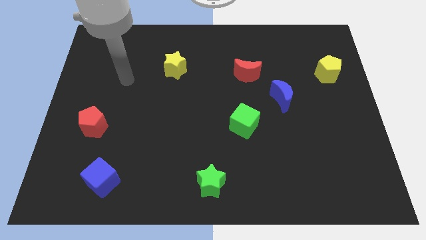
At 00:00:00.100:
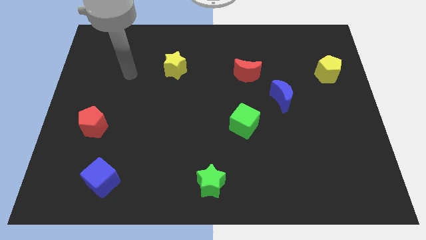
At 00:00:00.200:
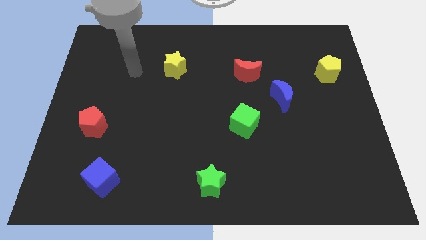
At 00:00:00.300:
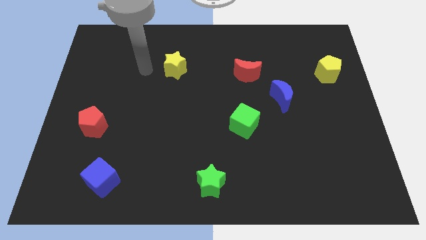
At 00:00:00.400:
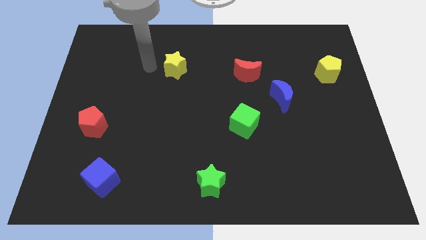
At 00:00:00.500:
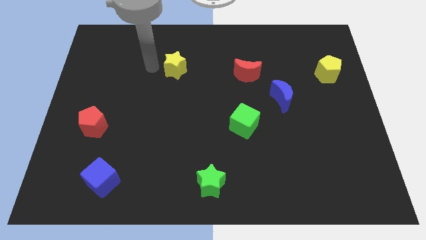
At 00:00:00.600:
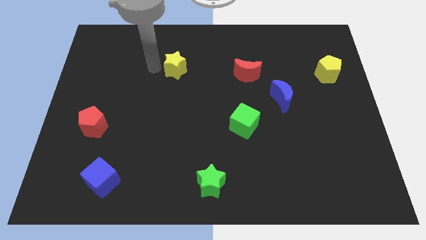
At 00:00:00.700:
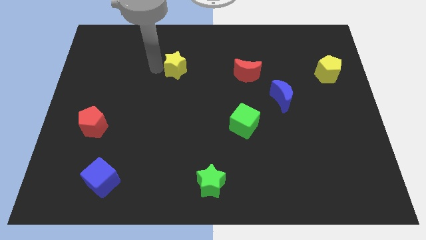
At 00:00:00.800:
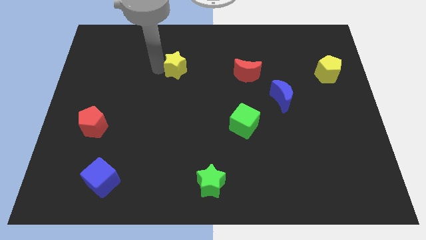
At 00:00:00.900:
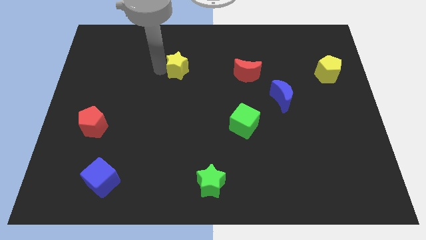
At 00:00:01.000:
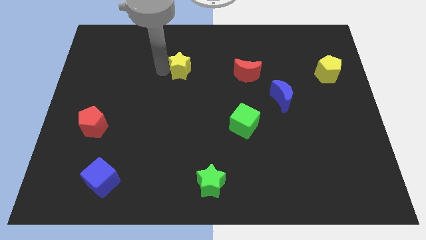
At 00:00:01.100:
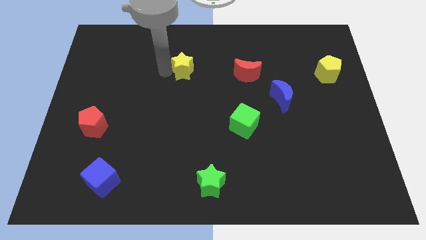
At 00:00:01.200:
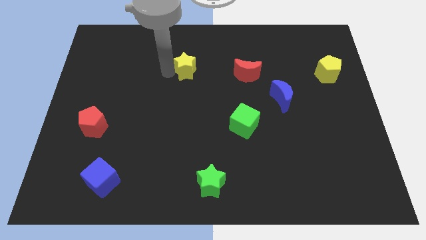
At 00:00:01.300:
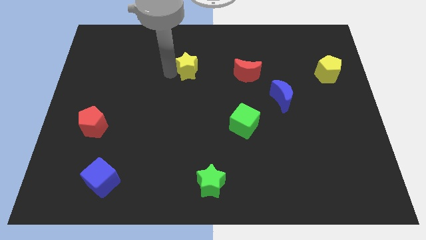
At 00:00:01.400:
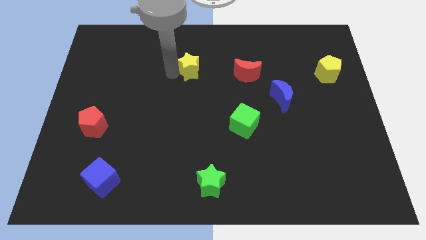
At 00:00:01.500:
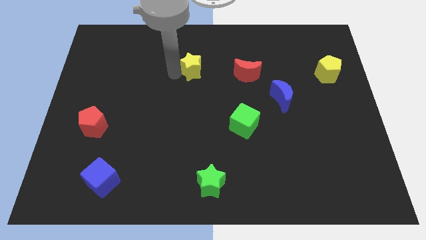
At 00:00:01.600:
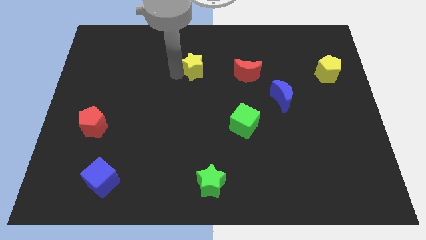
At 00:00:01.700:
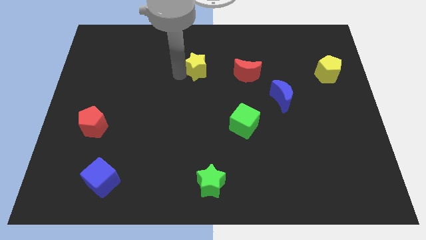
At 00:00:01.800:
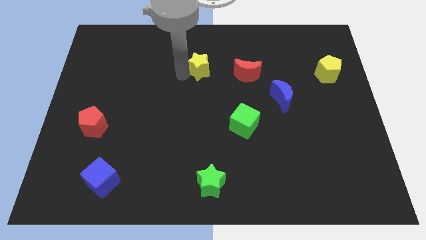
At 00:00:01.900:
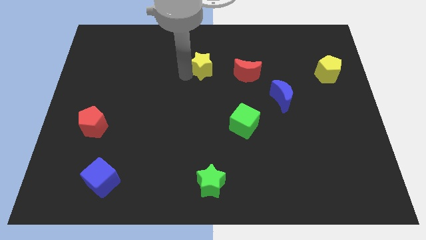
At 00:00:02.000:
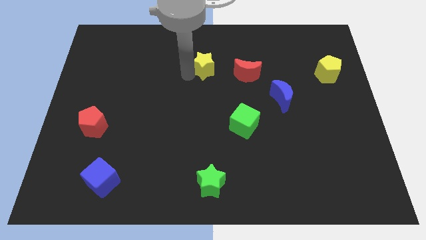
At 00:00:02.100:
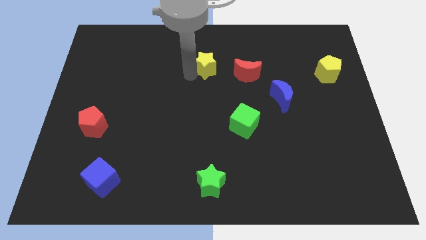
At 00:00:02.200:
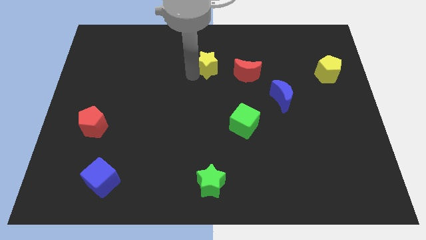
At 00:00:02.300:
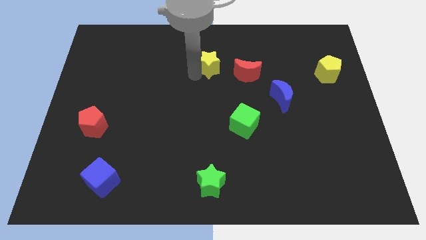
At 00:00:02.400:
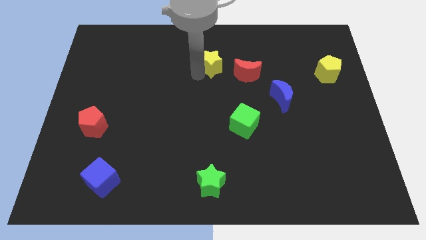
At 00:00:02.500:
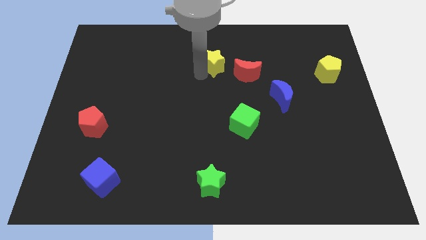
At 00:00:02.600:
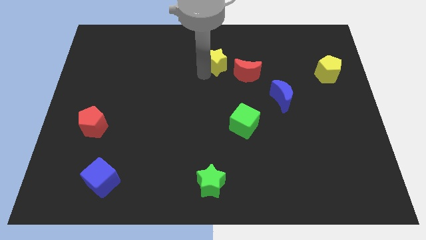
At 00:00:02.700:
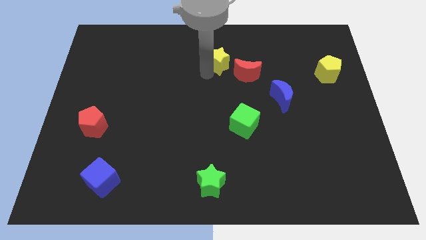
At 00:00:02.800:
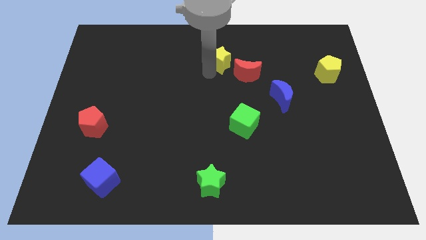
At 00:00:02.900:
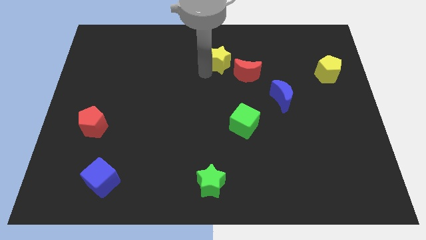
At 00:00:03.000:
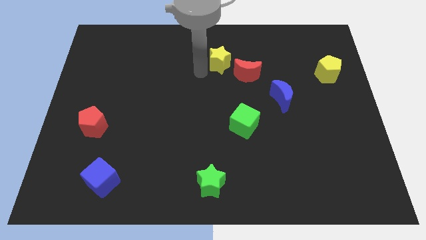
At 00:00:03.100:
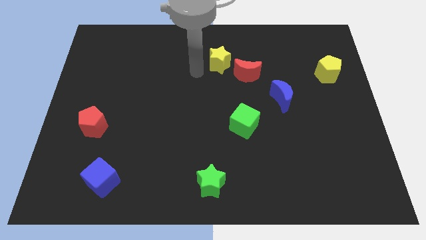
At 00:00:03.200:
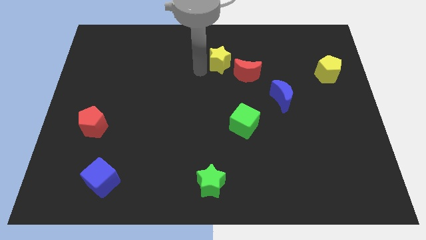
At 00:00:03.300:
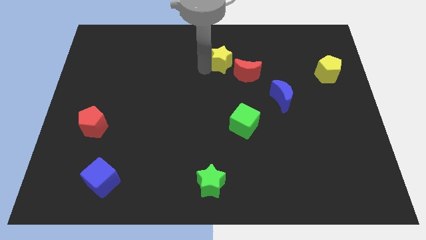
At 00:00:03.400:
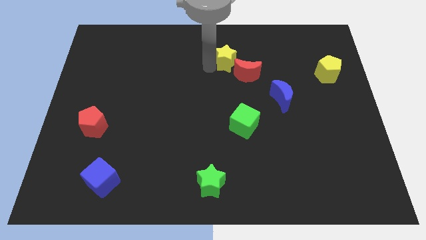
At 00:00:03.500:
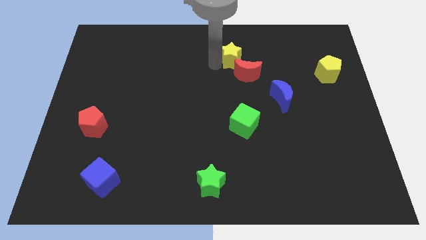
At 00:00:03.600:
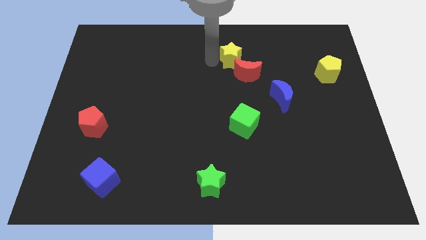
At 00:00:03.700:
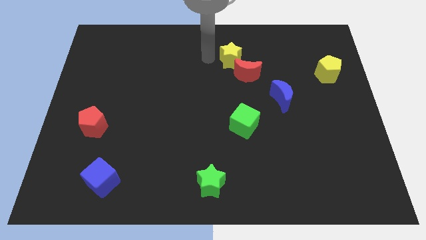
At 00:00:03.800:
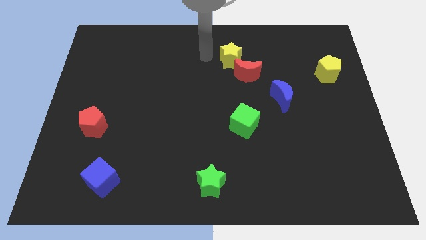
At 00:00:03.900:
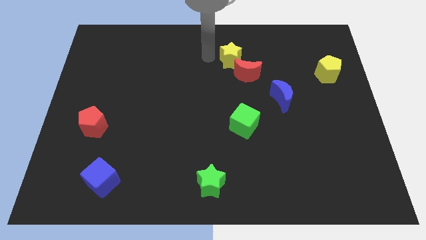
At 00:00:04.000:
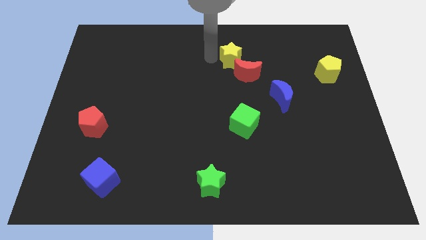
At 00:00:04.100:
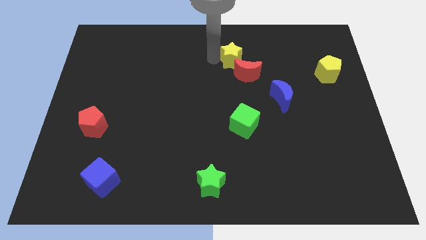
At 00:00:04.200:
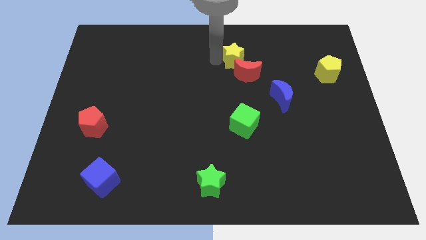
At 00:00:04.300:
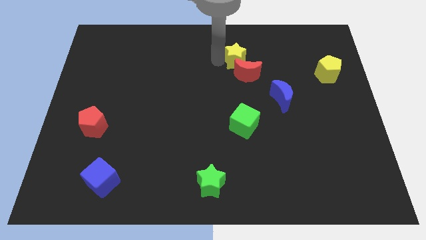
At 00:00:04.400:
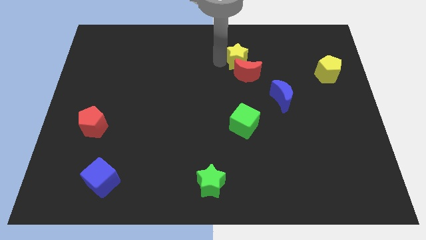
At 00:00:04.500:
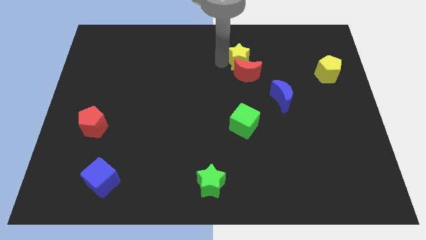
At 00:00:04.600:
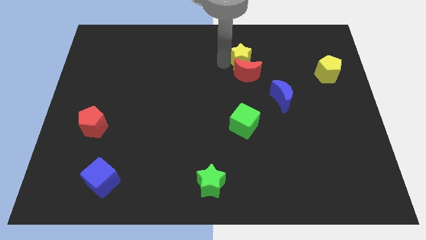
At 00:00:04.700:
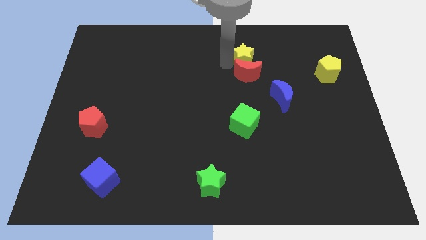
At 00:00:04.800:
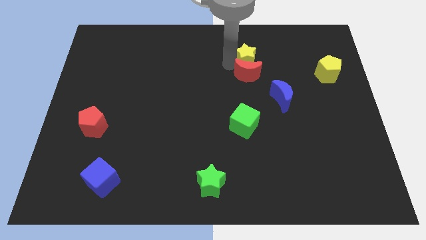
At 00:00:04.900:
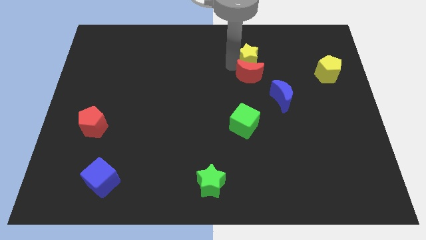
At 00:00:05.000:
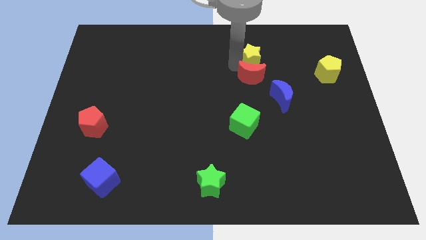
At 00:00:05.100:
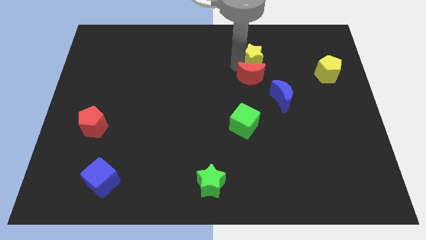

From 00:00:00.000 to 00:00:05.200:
push the yellow star to the right

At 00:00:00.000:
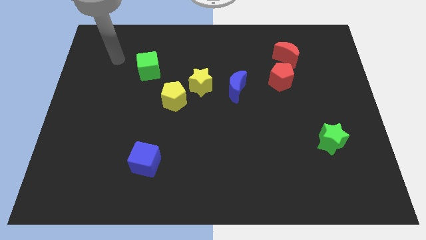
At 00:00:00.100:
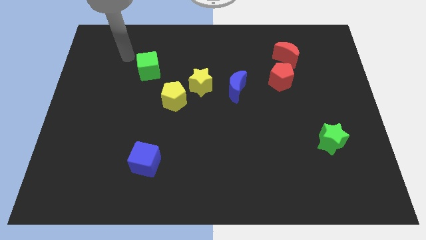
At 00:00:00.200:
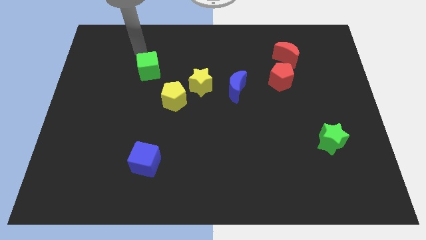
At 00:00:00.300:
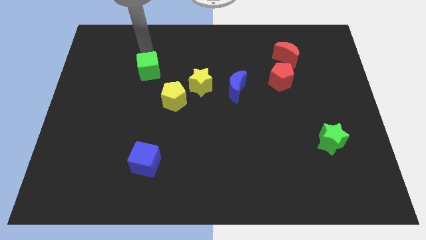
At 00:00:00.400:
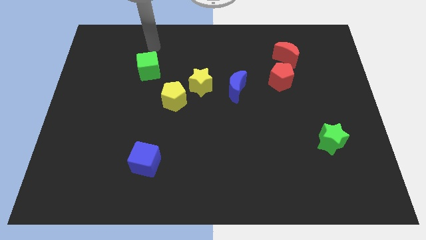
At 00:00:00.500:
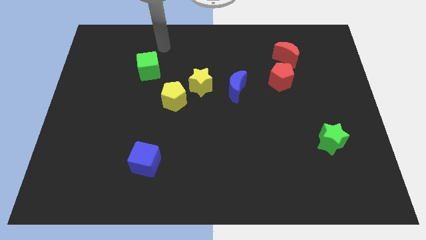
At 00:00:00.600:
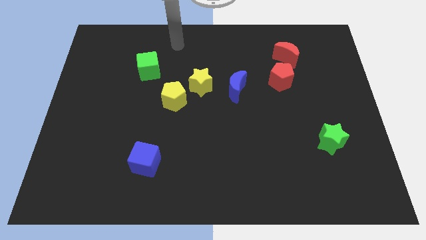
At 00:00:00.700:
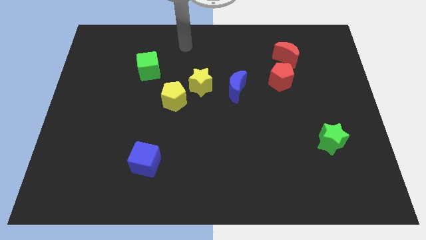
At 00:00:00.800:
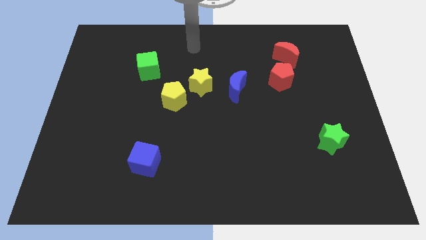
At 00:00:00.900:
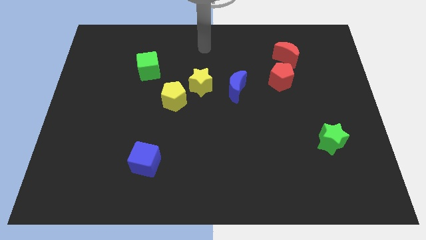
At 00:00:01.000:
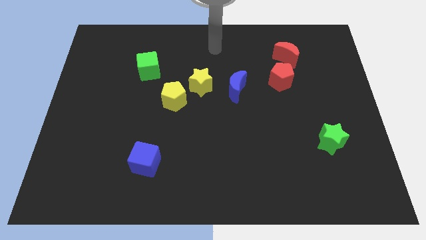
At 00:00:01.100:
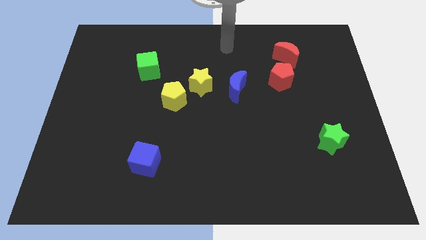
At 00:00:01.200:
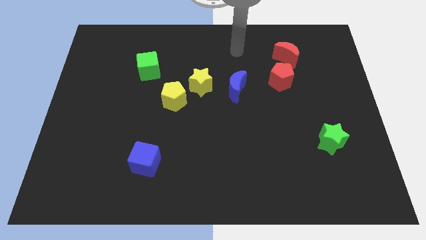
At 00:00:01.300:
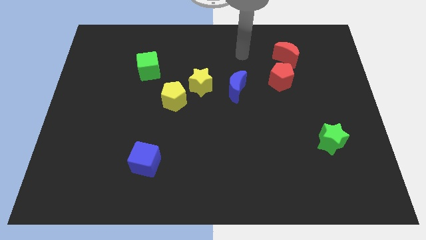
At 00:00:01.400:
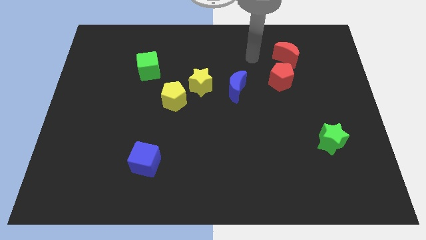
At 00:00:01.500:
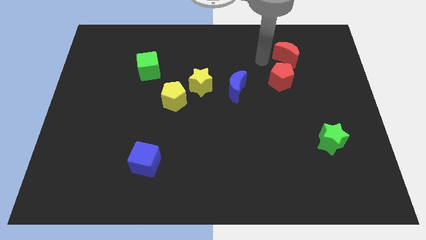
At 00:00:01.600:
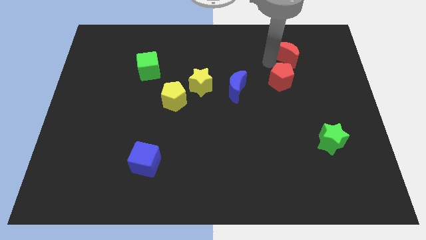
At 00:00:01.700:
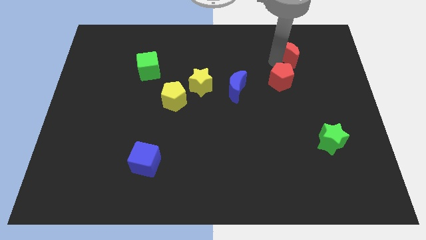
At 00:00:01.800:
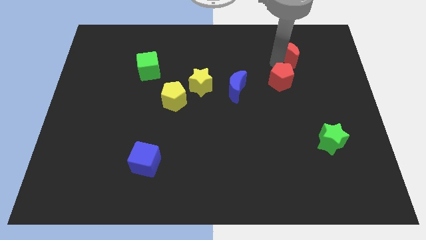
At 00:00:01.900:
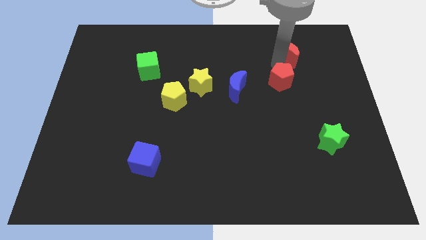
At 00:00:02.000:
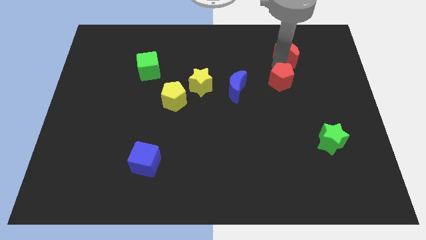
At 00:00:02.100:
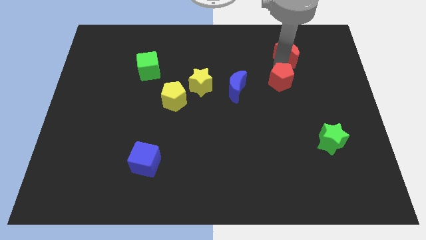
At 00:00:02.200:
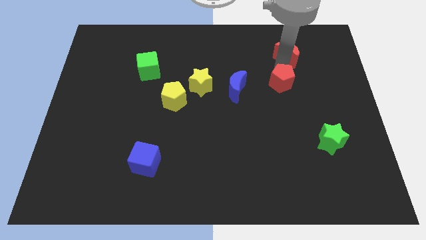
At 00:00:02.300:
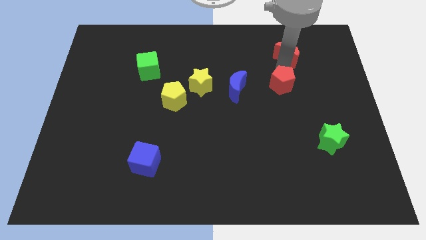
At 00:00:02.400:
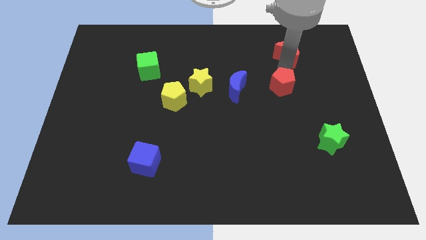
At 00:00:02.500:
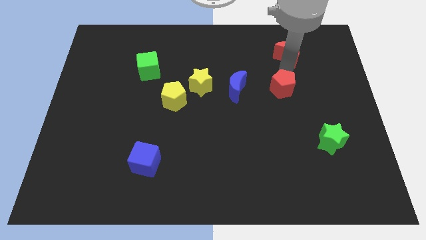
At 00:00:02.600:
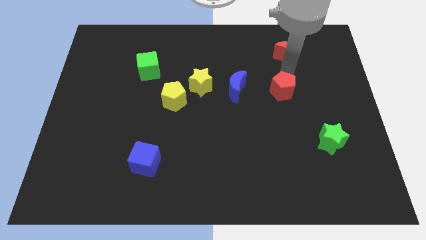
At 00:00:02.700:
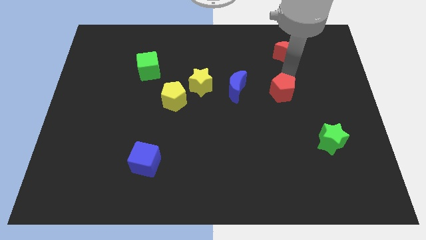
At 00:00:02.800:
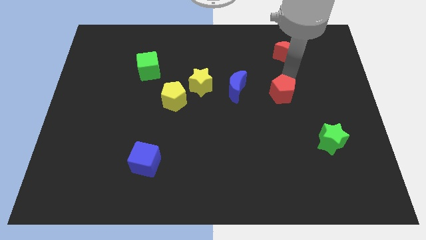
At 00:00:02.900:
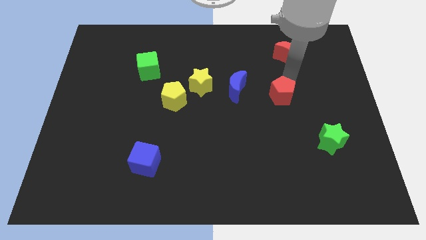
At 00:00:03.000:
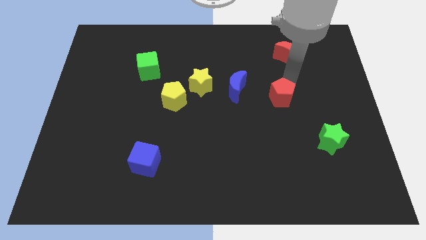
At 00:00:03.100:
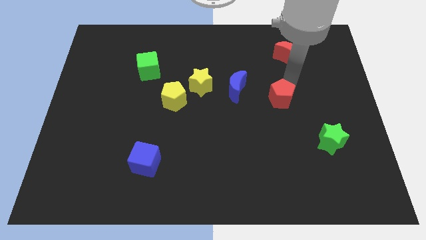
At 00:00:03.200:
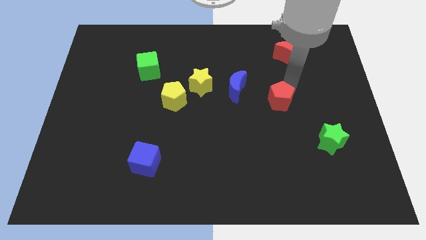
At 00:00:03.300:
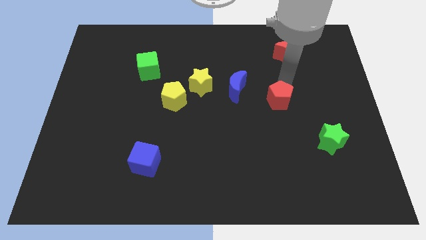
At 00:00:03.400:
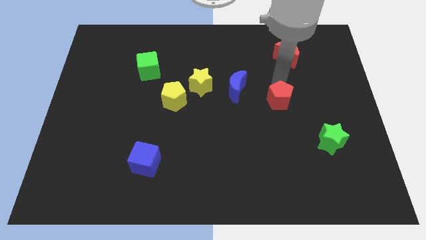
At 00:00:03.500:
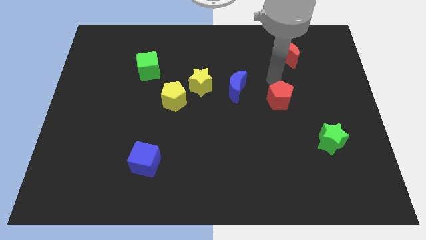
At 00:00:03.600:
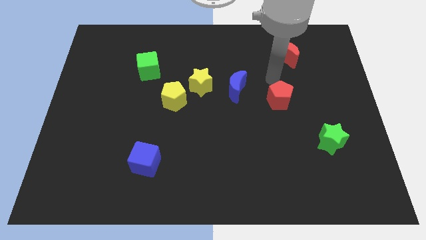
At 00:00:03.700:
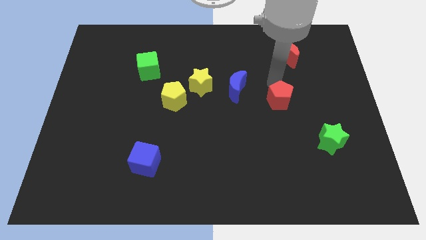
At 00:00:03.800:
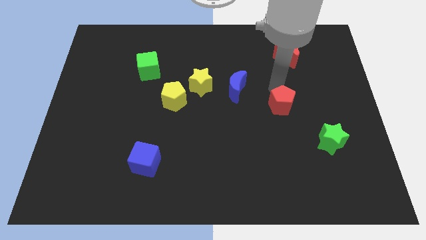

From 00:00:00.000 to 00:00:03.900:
slide the red pentagon downwards a little bit
